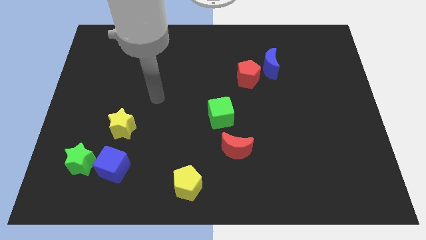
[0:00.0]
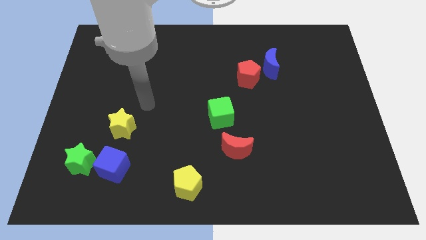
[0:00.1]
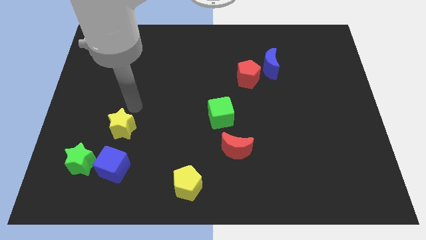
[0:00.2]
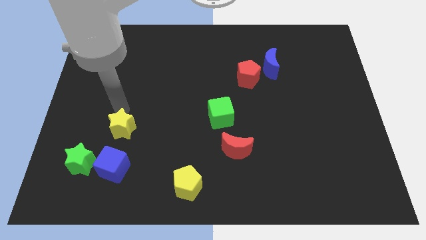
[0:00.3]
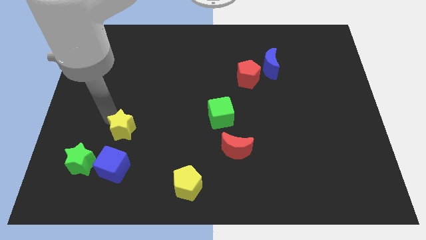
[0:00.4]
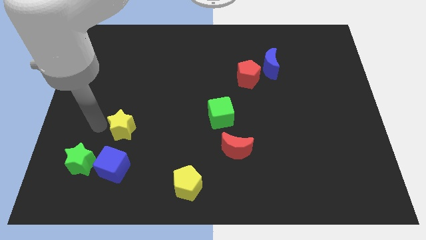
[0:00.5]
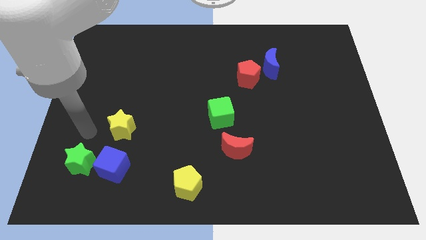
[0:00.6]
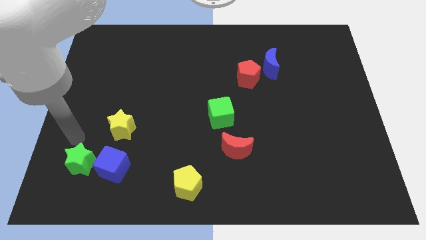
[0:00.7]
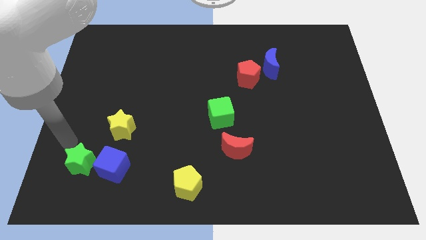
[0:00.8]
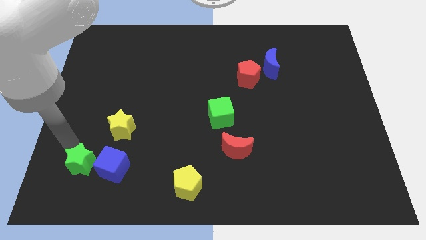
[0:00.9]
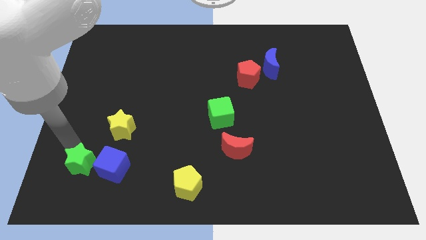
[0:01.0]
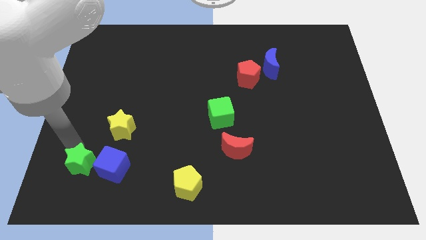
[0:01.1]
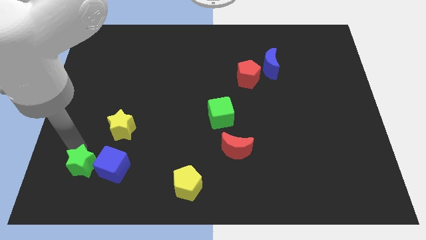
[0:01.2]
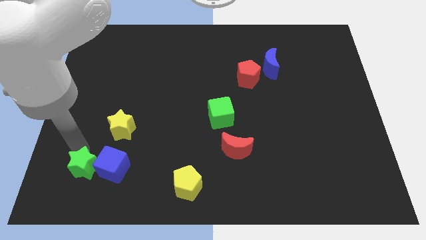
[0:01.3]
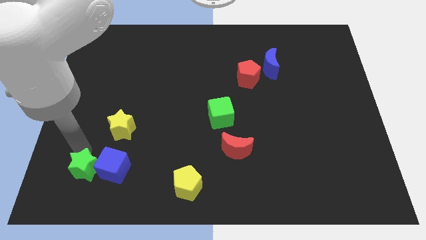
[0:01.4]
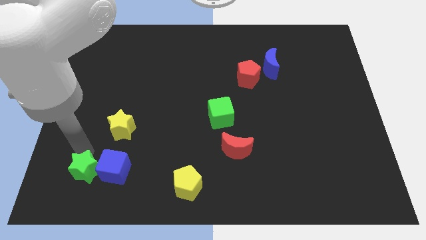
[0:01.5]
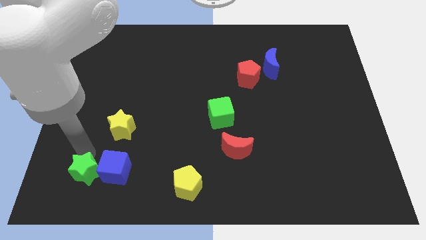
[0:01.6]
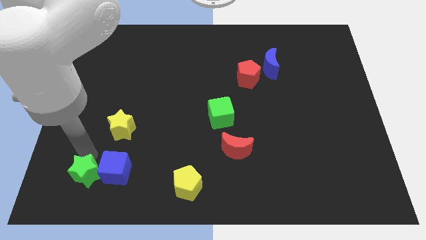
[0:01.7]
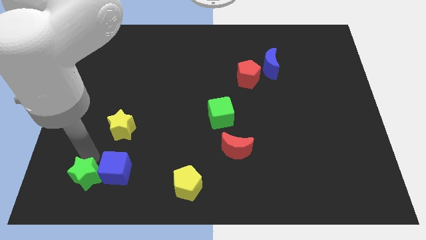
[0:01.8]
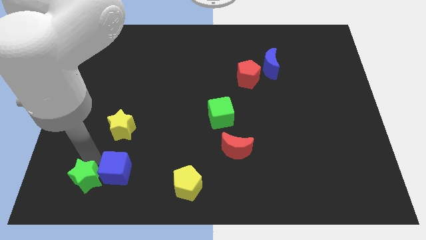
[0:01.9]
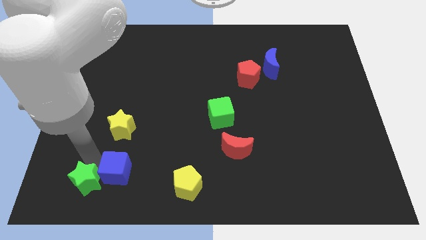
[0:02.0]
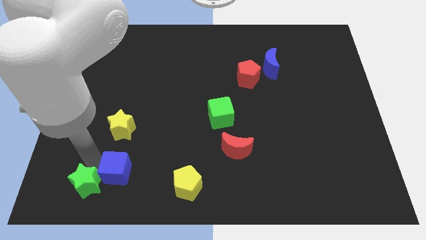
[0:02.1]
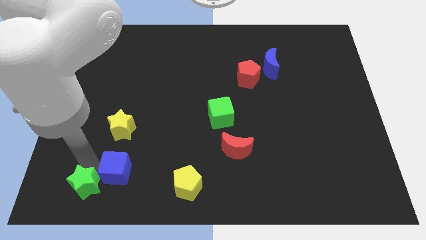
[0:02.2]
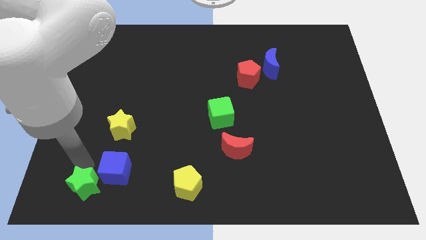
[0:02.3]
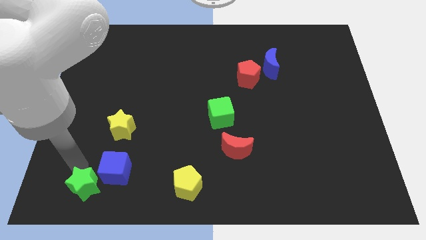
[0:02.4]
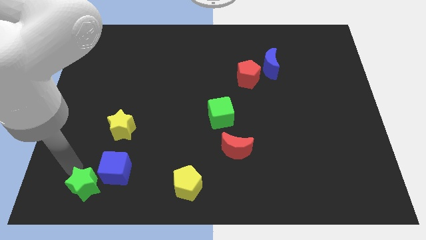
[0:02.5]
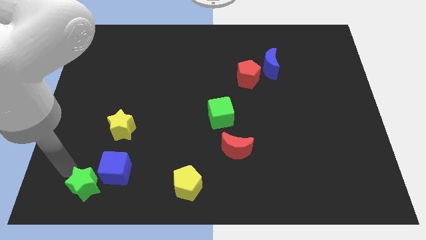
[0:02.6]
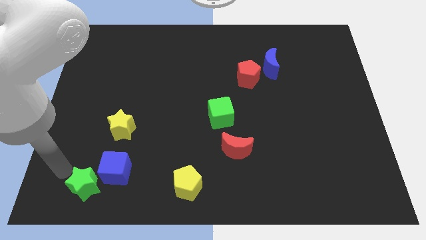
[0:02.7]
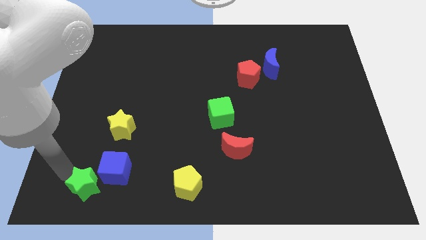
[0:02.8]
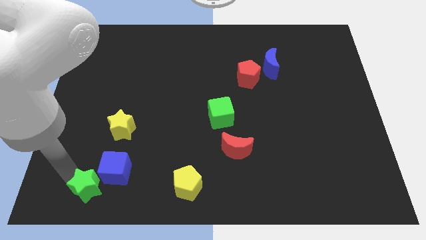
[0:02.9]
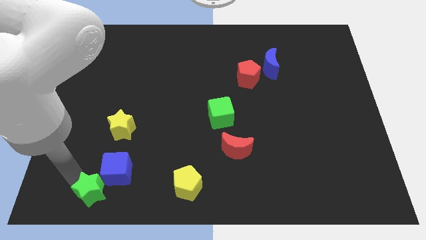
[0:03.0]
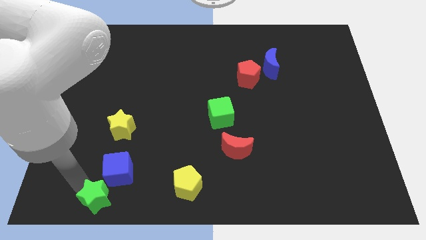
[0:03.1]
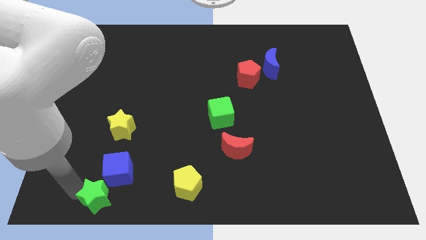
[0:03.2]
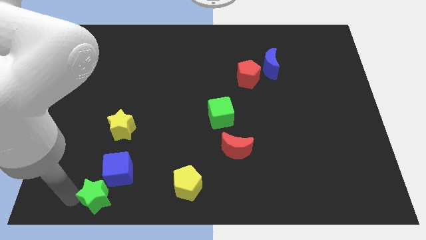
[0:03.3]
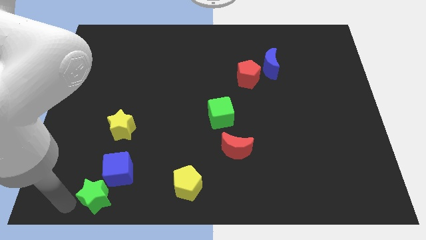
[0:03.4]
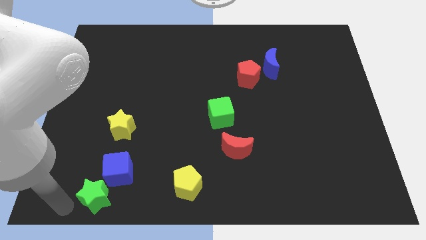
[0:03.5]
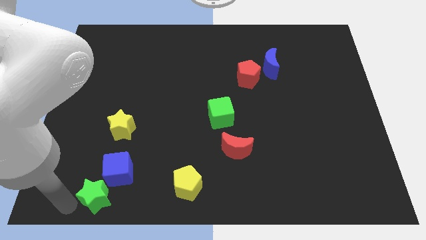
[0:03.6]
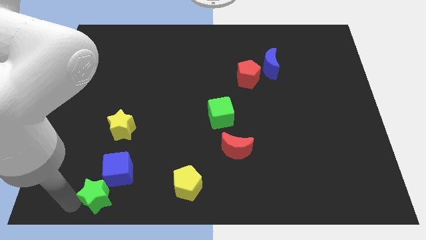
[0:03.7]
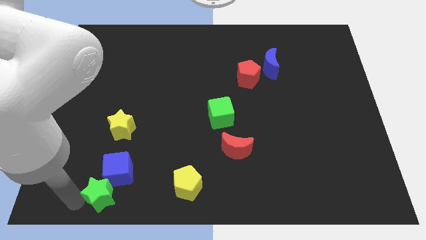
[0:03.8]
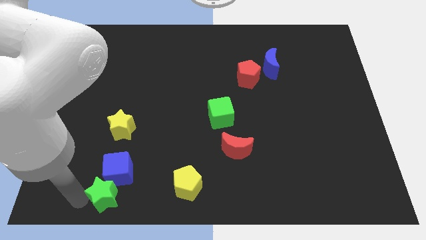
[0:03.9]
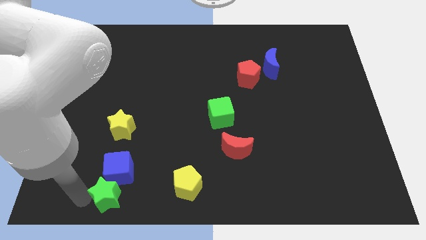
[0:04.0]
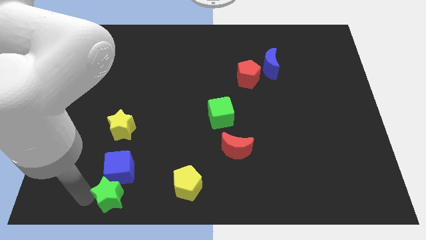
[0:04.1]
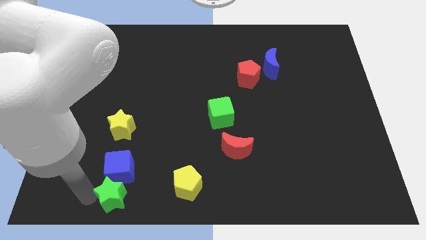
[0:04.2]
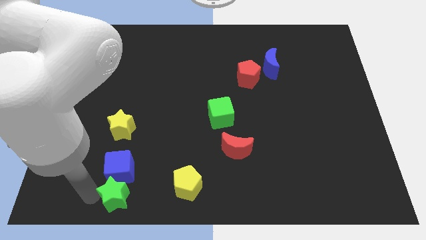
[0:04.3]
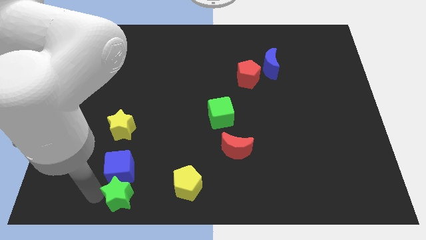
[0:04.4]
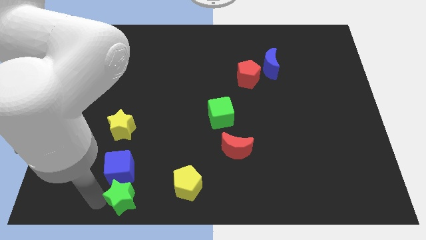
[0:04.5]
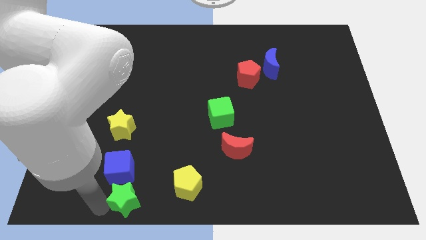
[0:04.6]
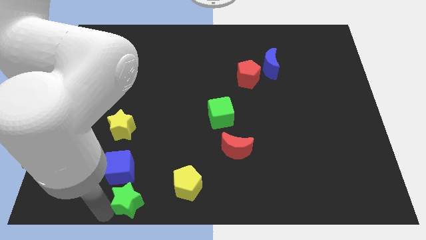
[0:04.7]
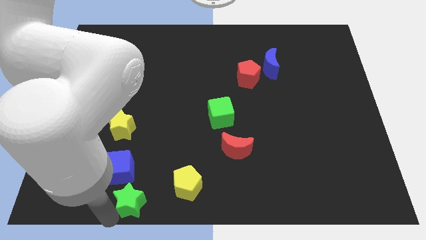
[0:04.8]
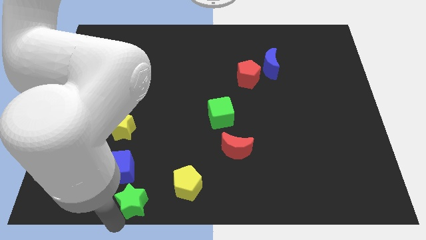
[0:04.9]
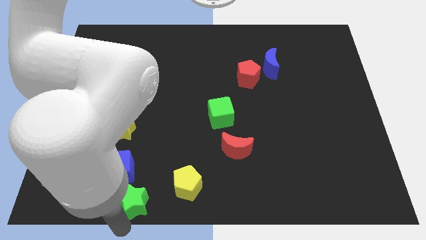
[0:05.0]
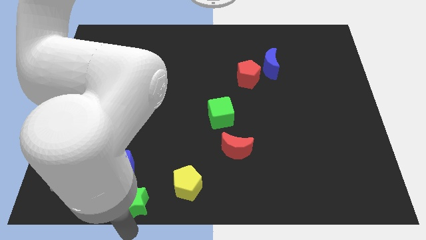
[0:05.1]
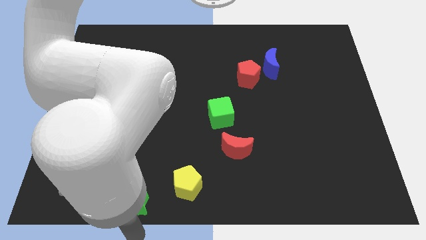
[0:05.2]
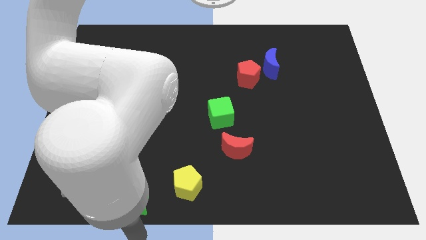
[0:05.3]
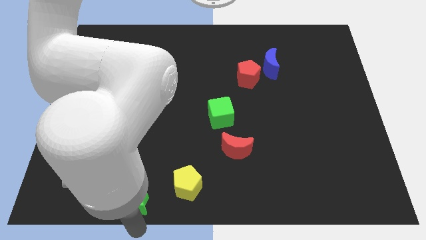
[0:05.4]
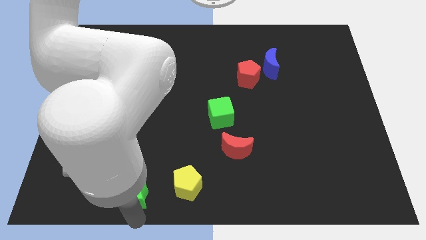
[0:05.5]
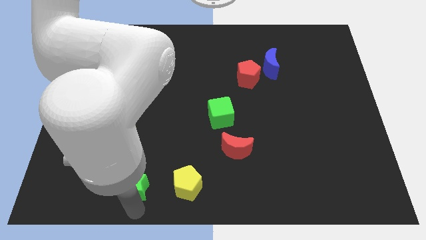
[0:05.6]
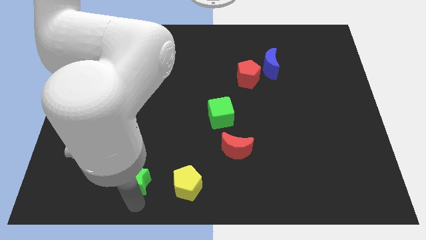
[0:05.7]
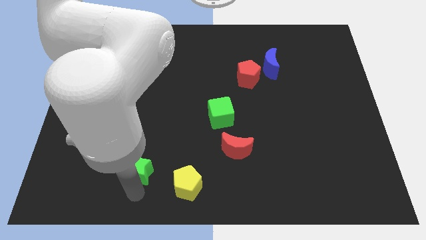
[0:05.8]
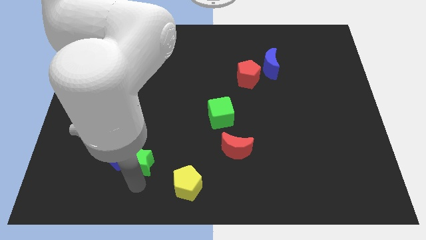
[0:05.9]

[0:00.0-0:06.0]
slide the green star to the bottom right of the yellow star

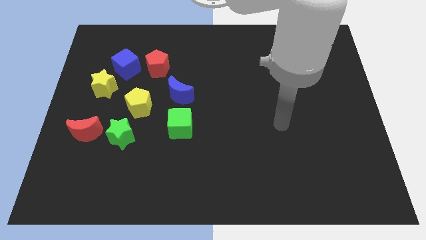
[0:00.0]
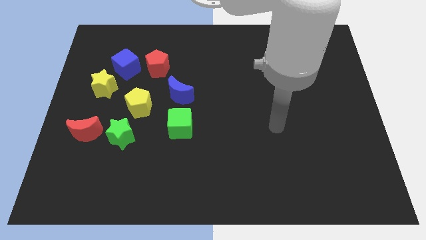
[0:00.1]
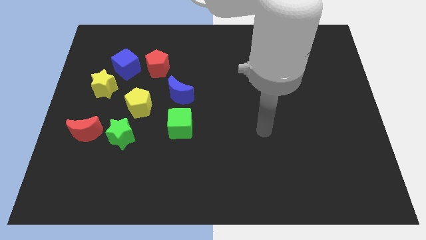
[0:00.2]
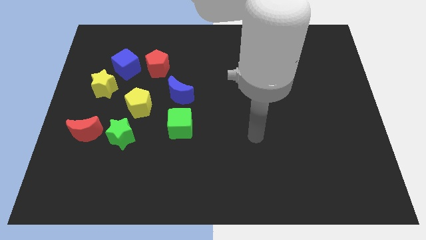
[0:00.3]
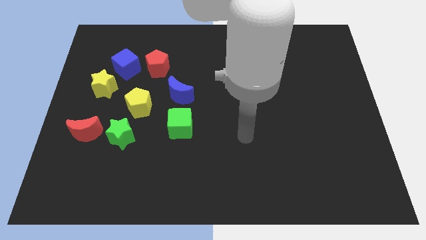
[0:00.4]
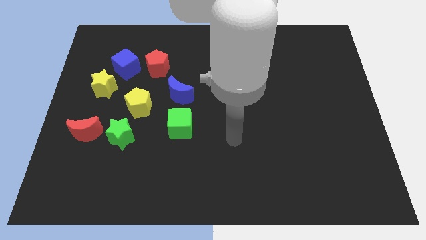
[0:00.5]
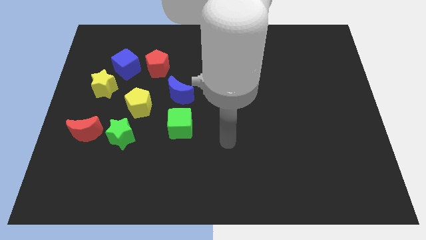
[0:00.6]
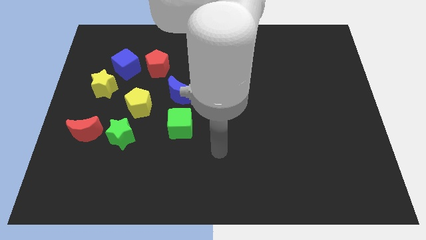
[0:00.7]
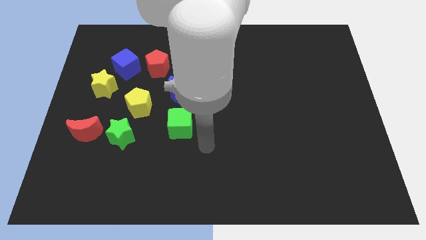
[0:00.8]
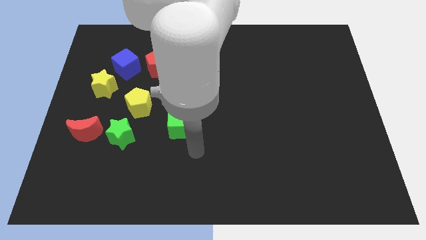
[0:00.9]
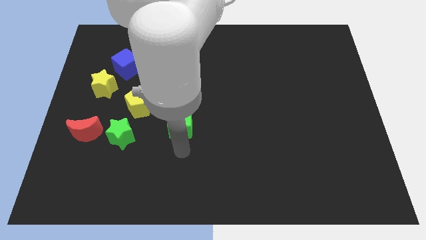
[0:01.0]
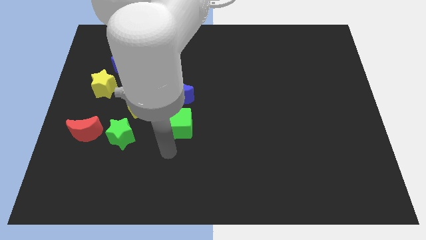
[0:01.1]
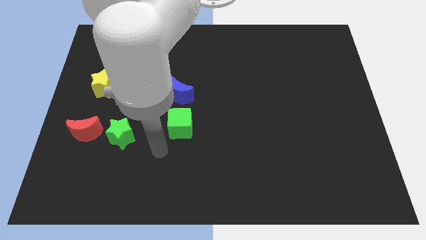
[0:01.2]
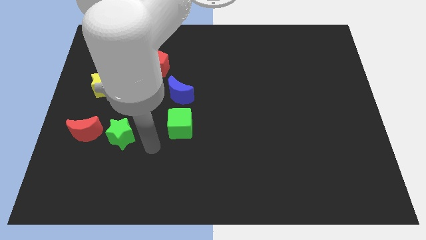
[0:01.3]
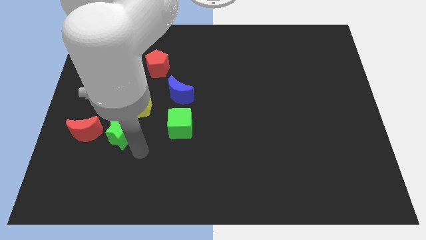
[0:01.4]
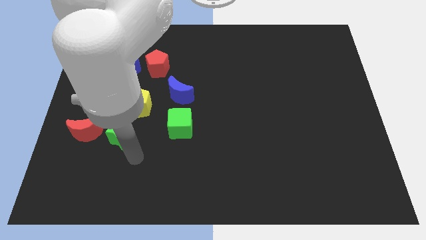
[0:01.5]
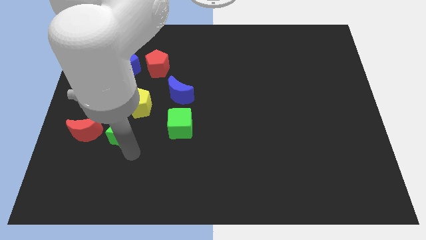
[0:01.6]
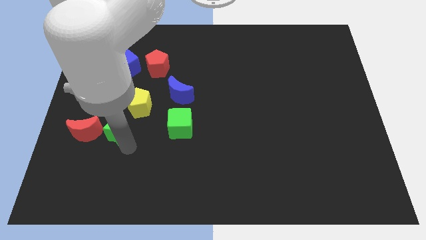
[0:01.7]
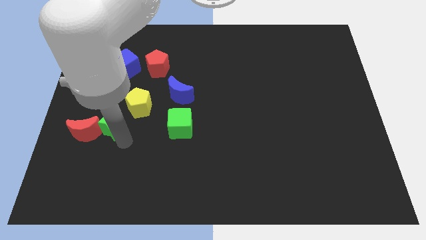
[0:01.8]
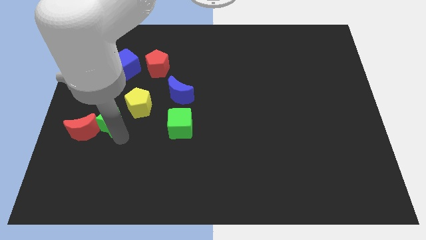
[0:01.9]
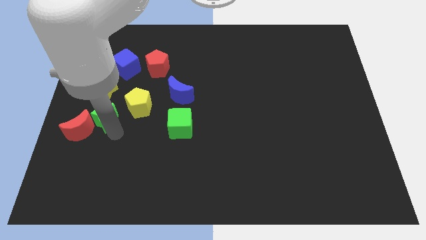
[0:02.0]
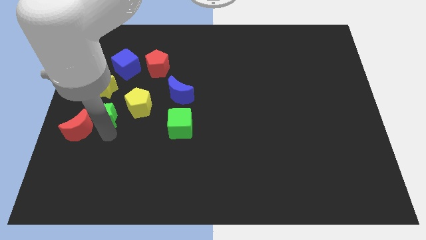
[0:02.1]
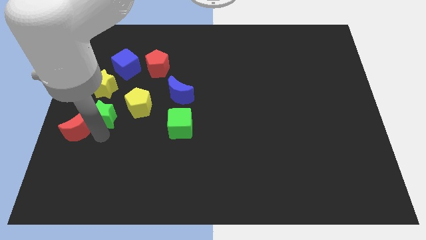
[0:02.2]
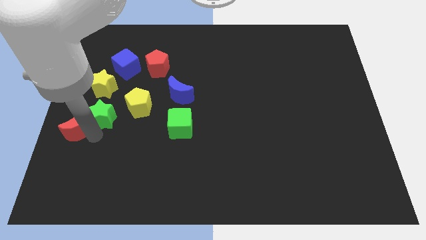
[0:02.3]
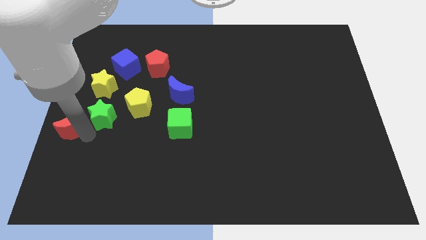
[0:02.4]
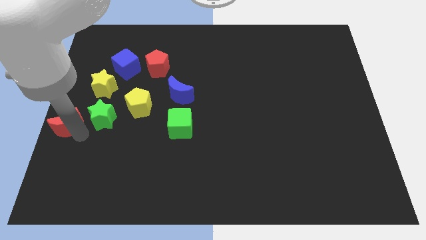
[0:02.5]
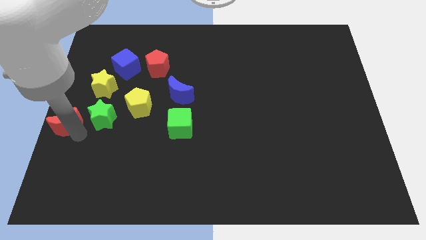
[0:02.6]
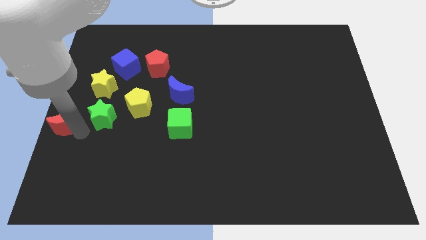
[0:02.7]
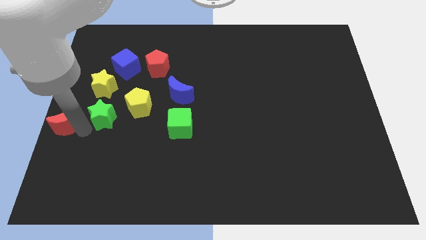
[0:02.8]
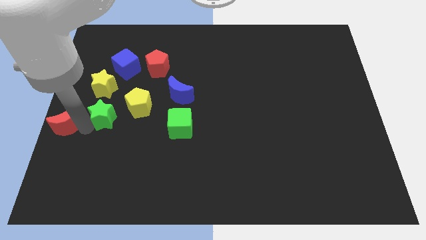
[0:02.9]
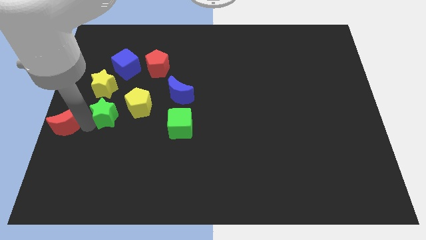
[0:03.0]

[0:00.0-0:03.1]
slide the green star to the bottom right side of the yellow star
